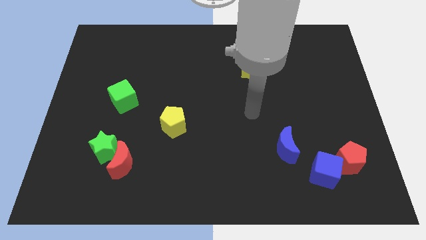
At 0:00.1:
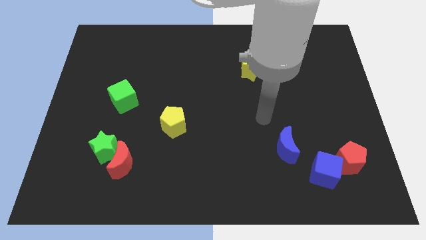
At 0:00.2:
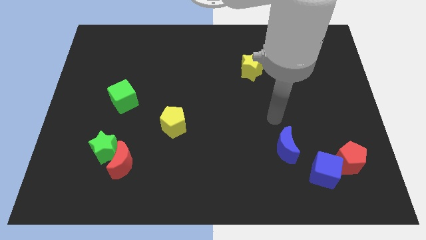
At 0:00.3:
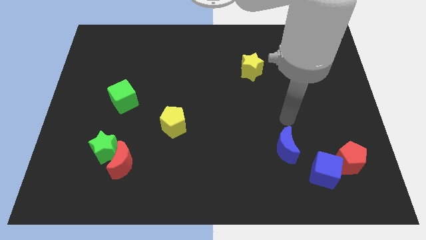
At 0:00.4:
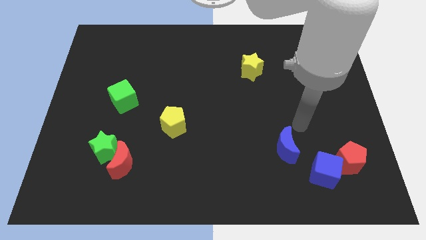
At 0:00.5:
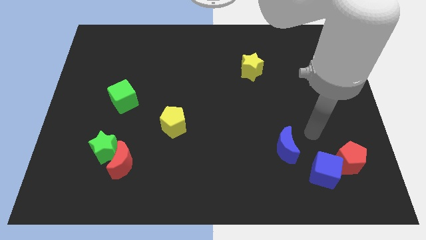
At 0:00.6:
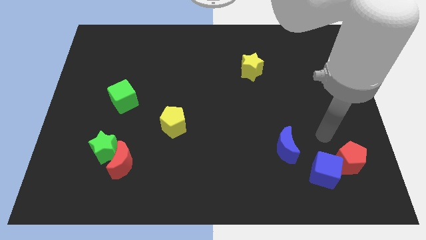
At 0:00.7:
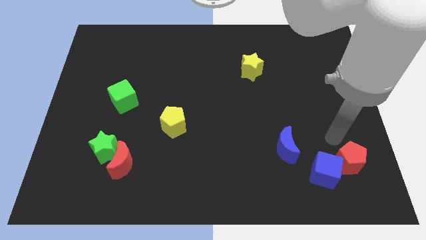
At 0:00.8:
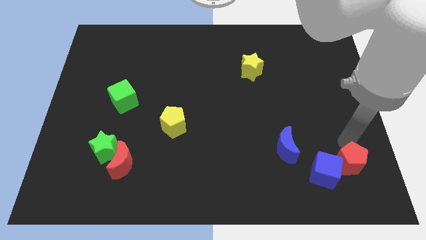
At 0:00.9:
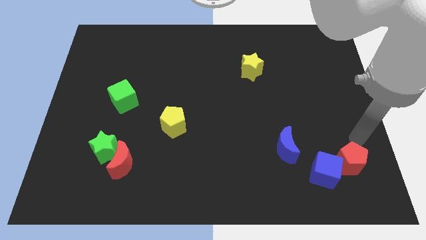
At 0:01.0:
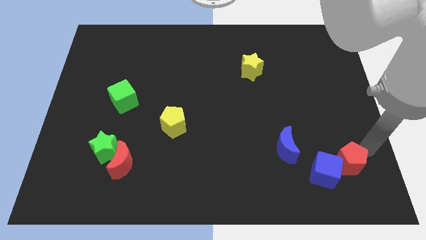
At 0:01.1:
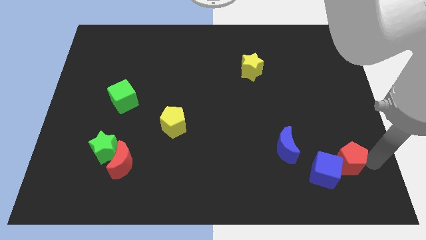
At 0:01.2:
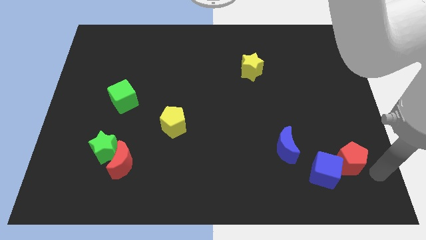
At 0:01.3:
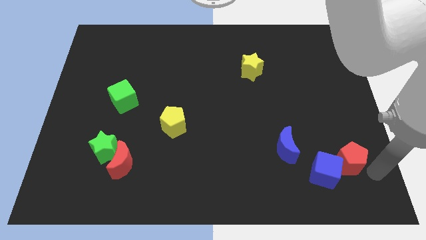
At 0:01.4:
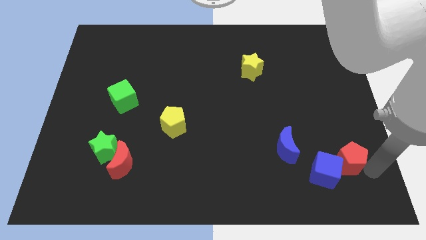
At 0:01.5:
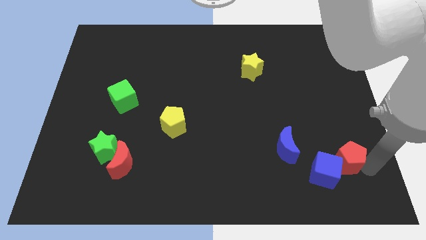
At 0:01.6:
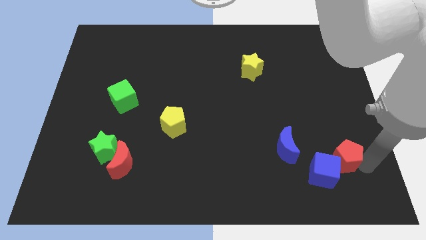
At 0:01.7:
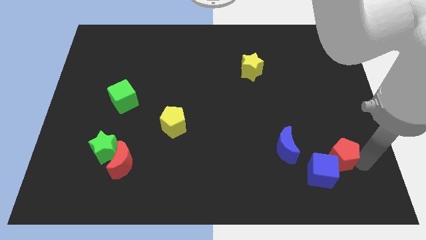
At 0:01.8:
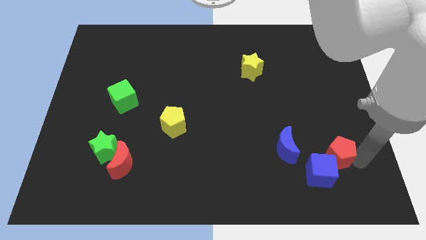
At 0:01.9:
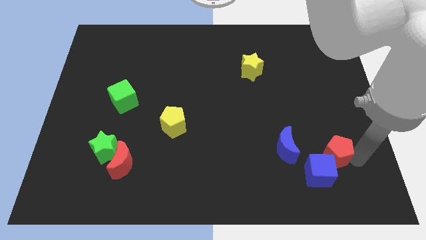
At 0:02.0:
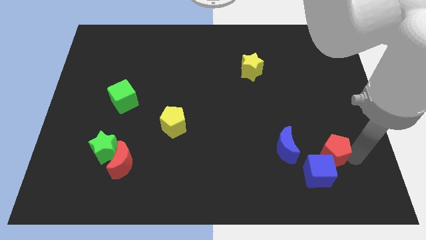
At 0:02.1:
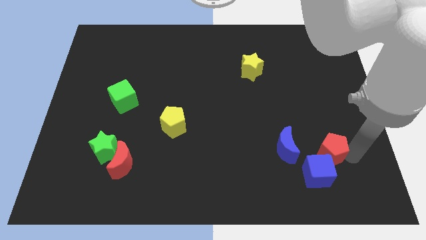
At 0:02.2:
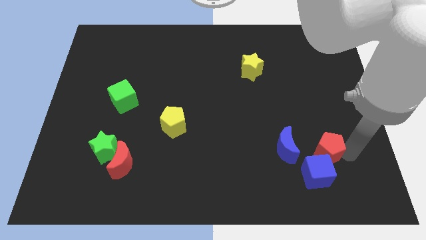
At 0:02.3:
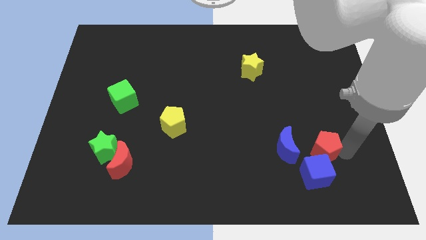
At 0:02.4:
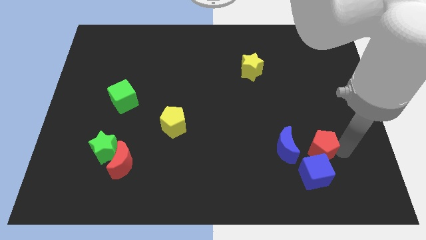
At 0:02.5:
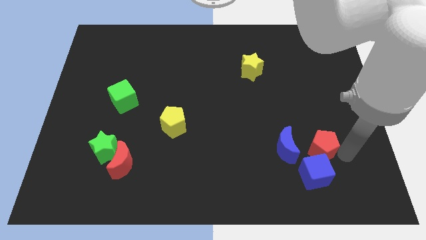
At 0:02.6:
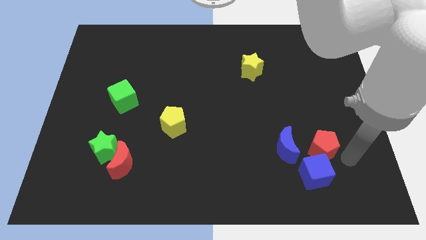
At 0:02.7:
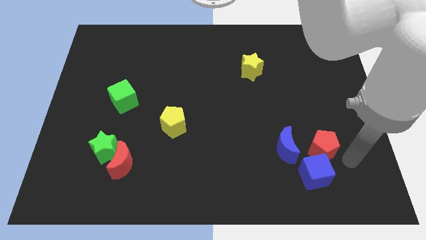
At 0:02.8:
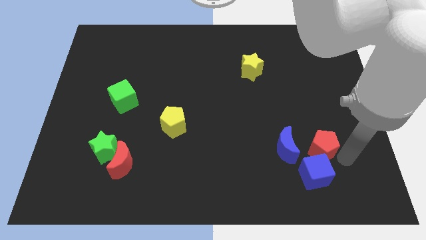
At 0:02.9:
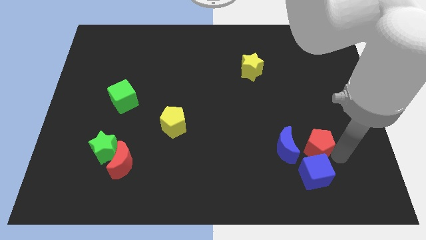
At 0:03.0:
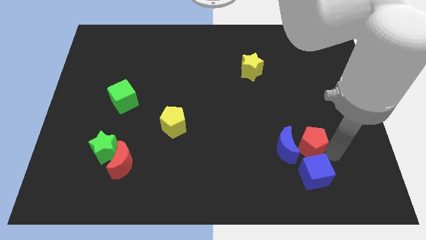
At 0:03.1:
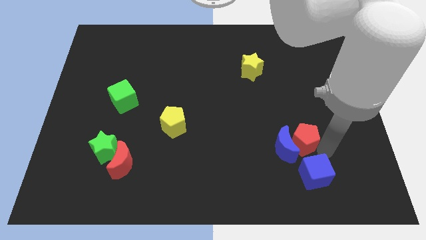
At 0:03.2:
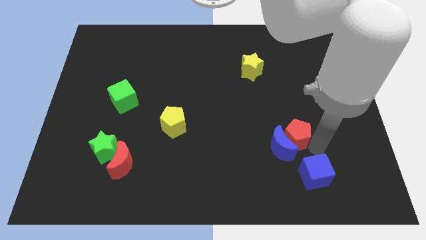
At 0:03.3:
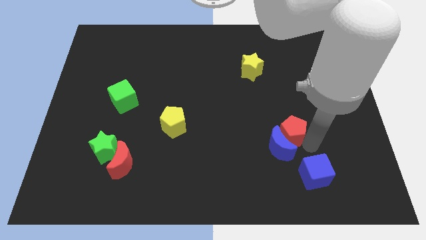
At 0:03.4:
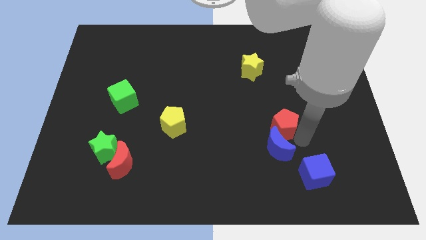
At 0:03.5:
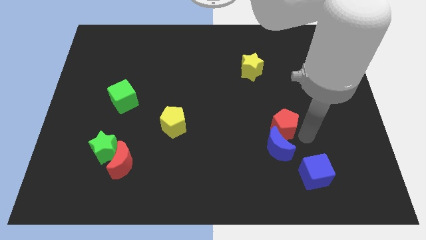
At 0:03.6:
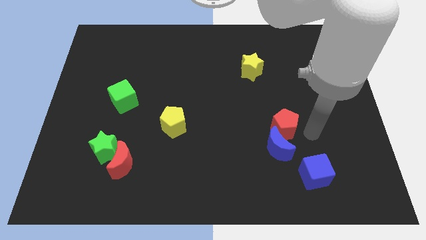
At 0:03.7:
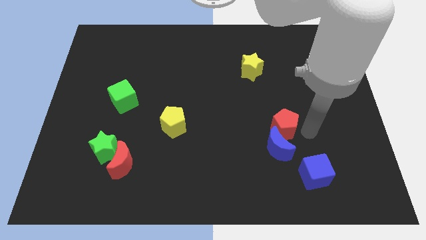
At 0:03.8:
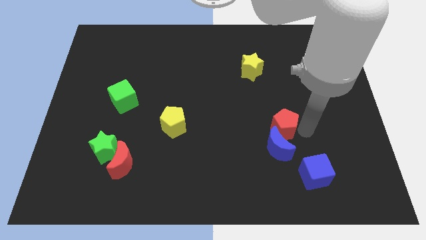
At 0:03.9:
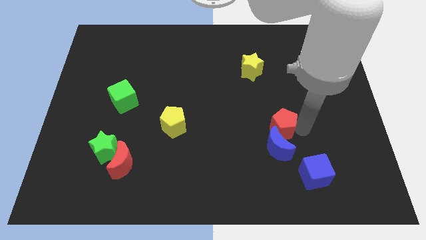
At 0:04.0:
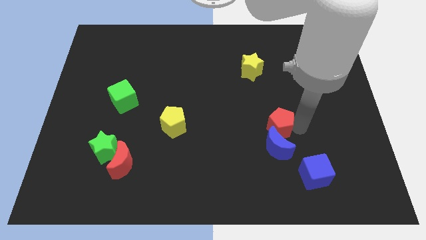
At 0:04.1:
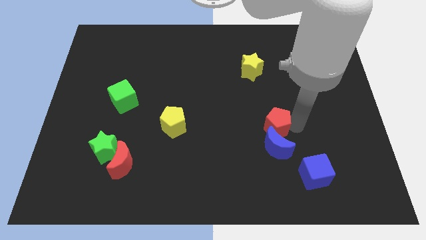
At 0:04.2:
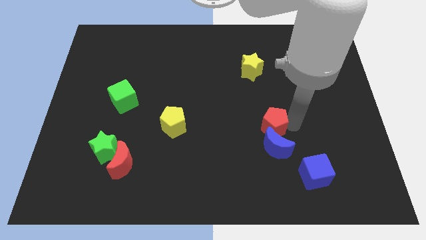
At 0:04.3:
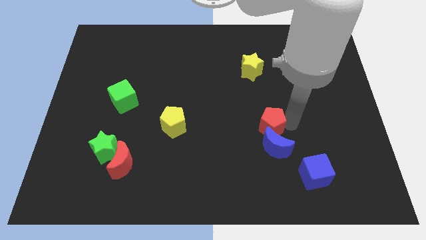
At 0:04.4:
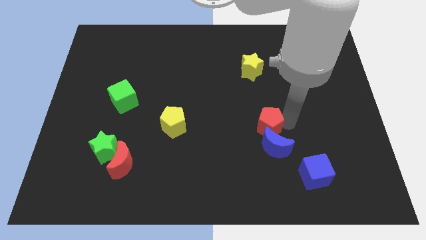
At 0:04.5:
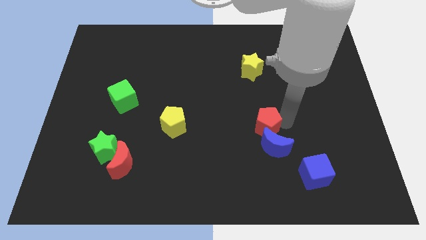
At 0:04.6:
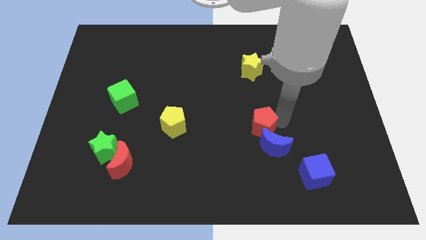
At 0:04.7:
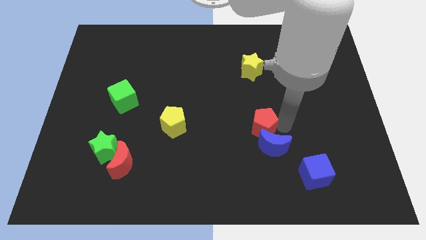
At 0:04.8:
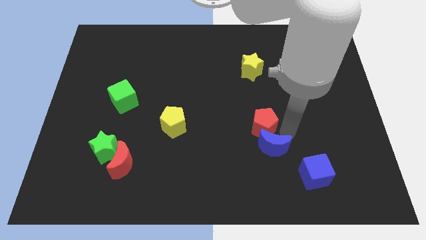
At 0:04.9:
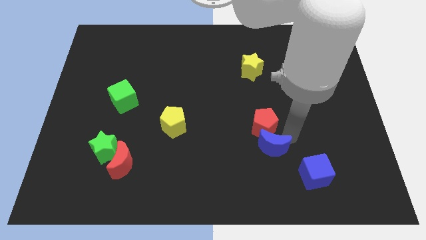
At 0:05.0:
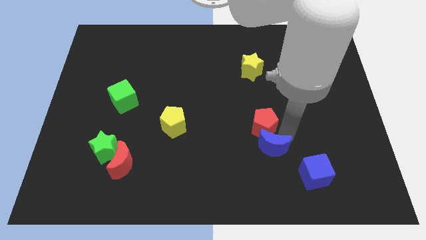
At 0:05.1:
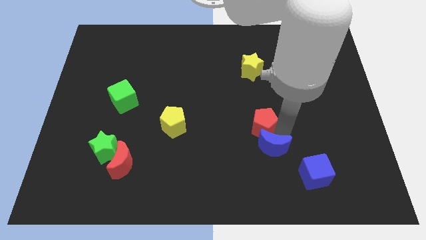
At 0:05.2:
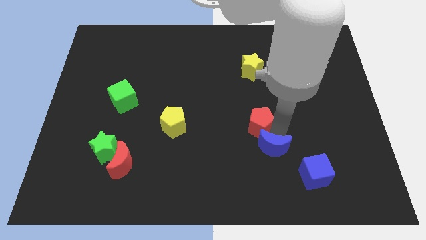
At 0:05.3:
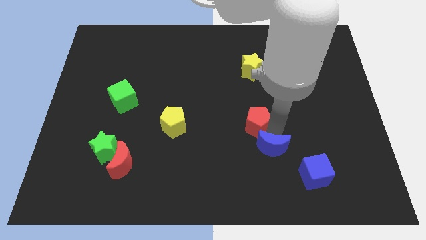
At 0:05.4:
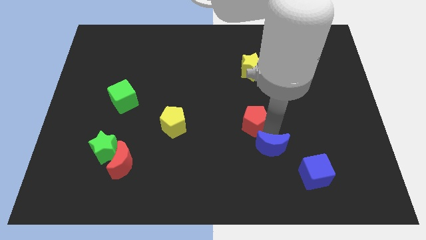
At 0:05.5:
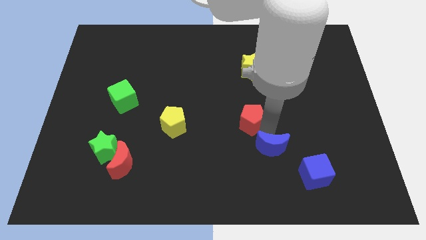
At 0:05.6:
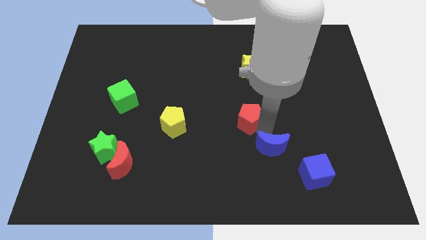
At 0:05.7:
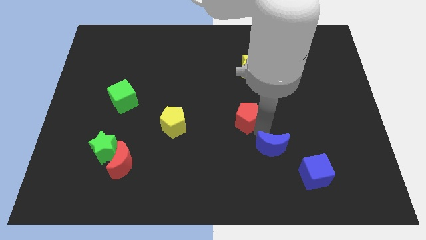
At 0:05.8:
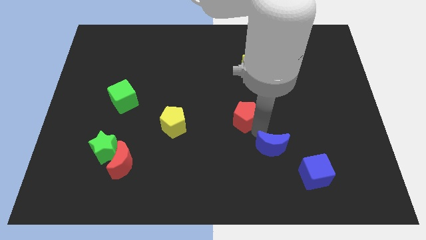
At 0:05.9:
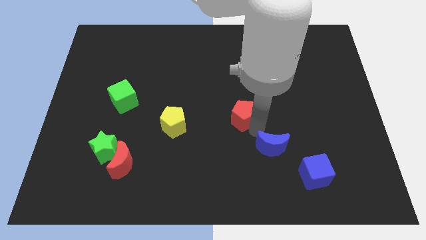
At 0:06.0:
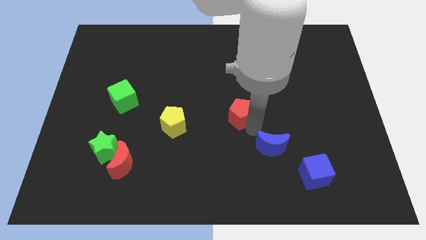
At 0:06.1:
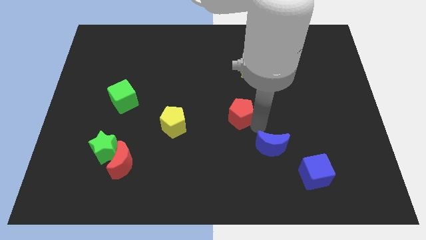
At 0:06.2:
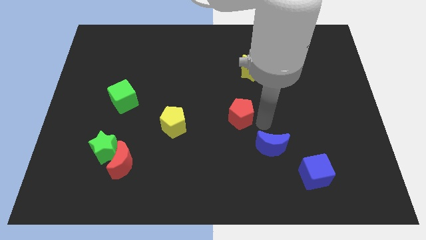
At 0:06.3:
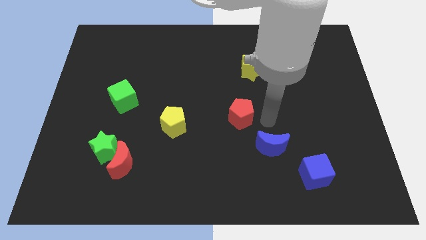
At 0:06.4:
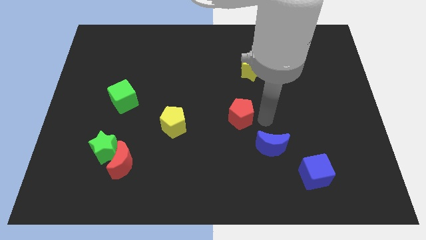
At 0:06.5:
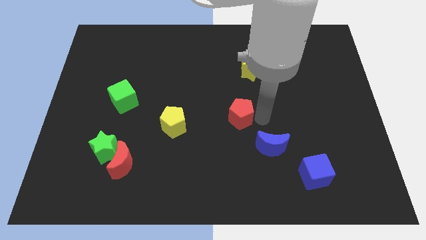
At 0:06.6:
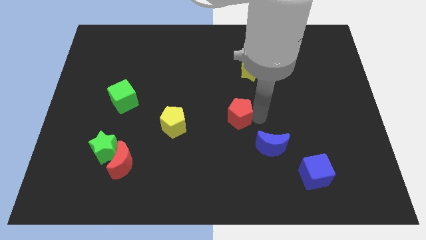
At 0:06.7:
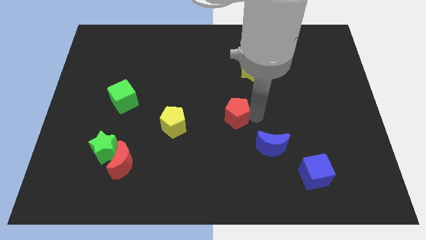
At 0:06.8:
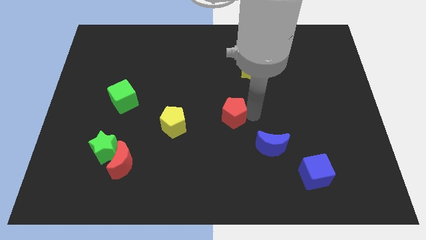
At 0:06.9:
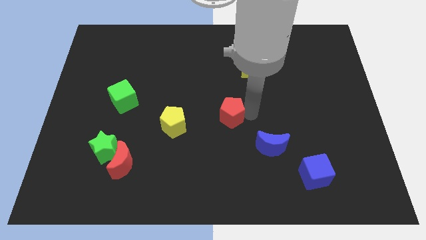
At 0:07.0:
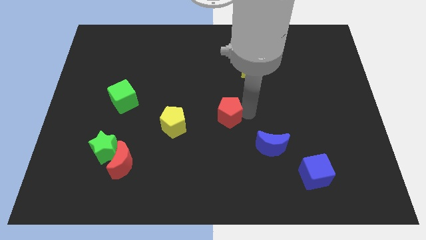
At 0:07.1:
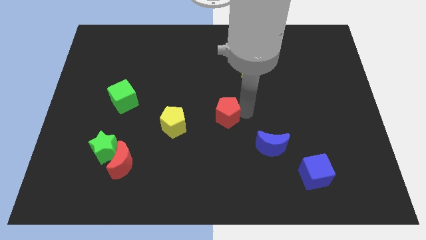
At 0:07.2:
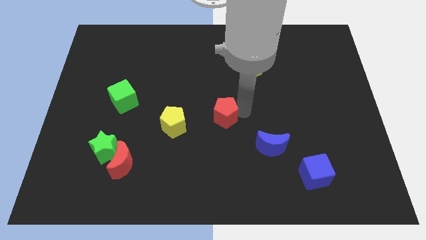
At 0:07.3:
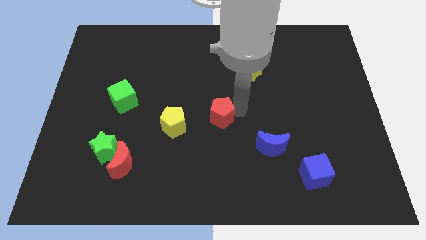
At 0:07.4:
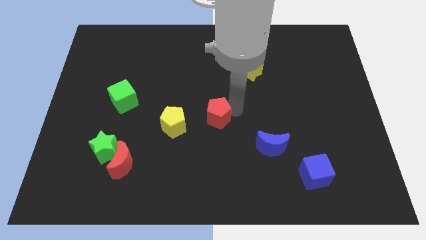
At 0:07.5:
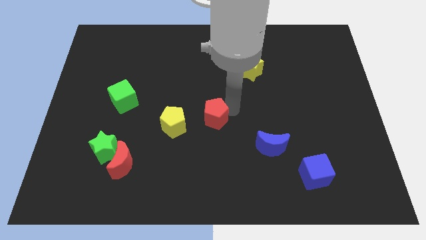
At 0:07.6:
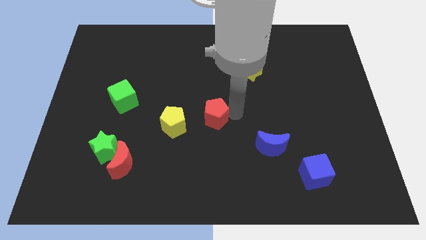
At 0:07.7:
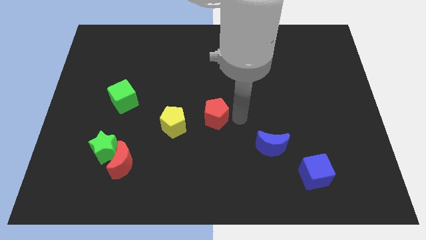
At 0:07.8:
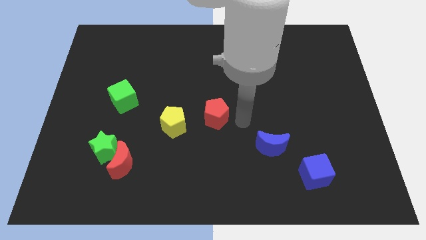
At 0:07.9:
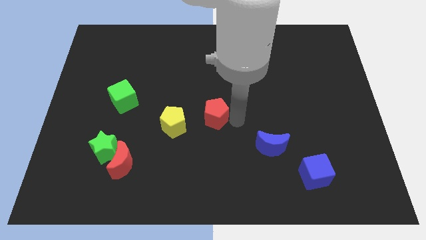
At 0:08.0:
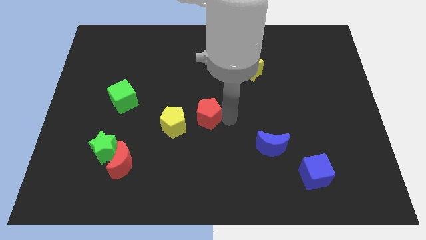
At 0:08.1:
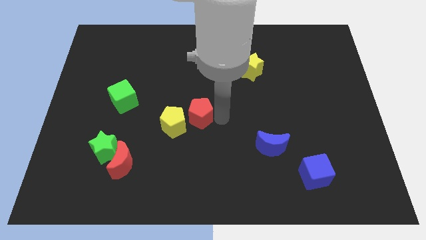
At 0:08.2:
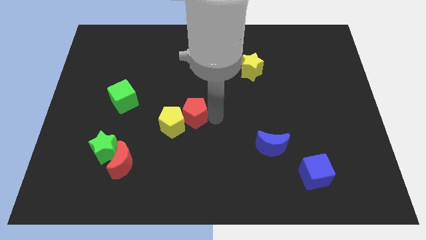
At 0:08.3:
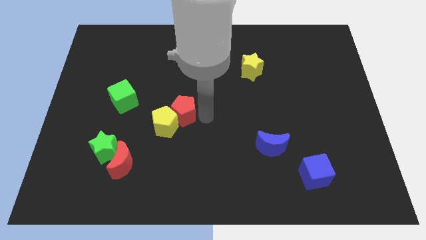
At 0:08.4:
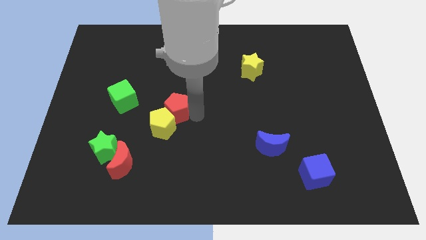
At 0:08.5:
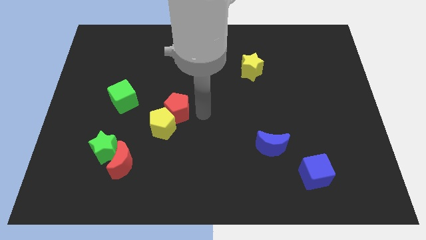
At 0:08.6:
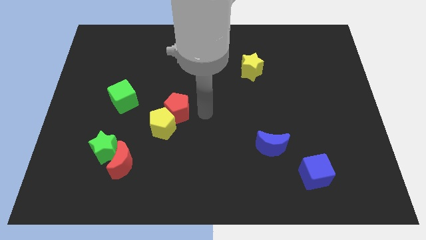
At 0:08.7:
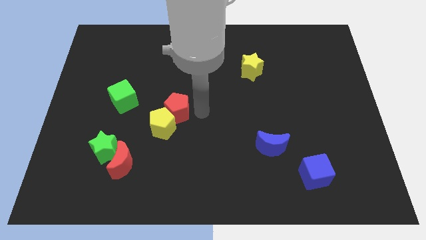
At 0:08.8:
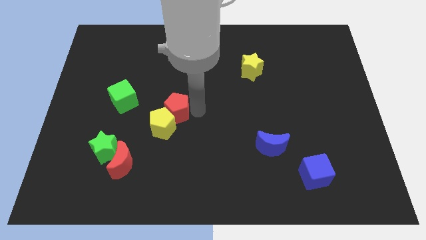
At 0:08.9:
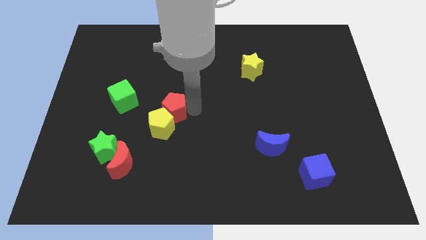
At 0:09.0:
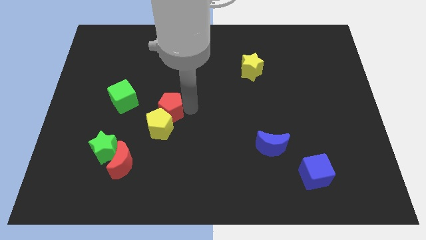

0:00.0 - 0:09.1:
move the red pentagon to the top left side of the yellow pentagon
